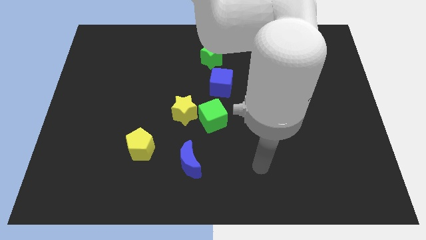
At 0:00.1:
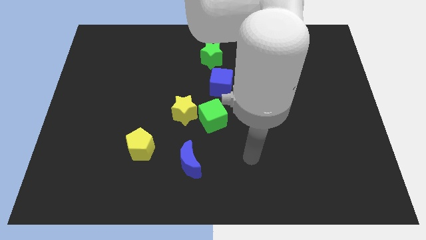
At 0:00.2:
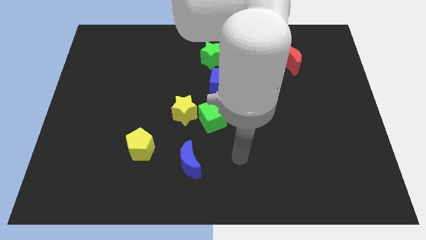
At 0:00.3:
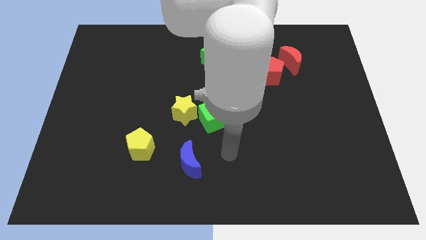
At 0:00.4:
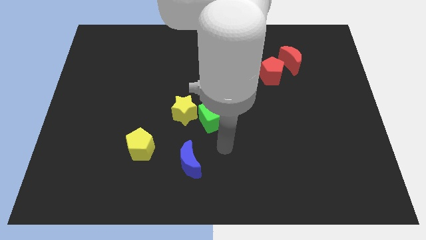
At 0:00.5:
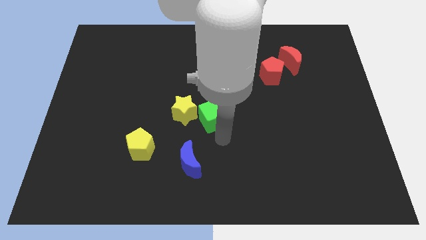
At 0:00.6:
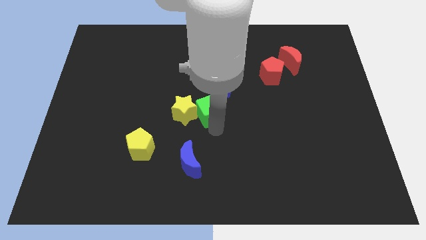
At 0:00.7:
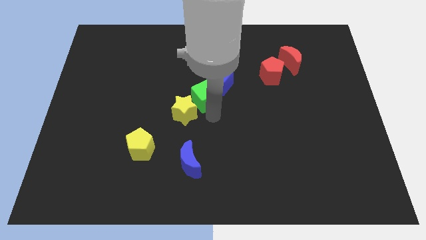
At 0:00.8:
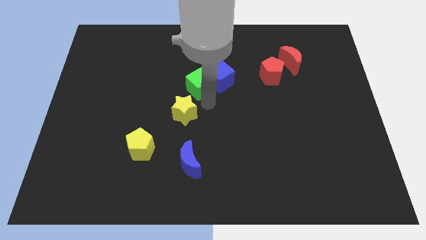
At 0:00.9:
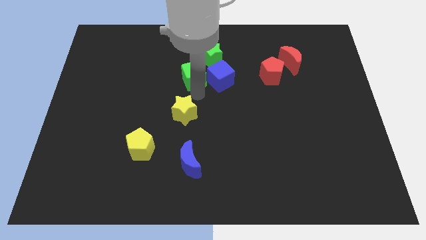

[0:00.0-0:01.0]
move the yellow star away from the green cube

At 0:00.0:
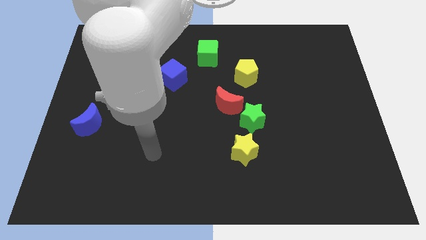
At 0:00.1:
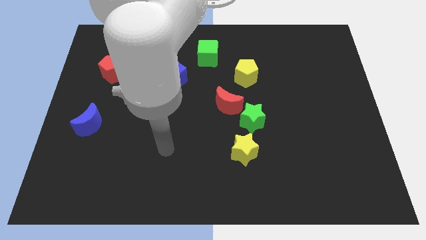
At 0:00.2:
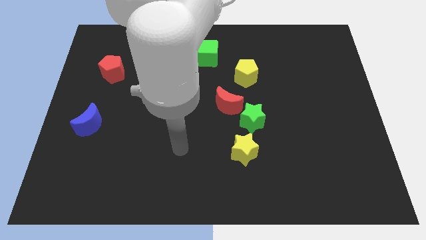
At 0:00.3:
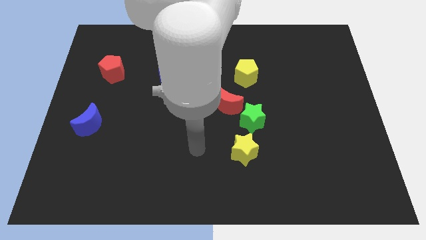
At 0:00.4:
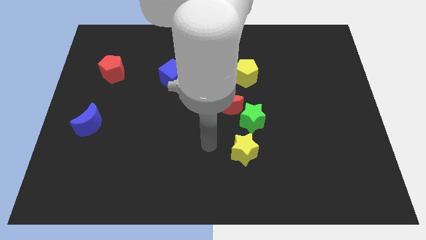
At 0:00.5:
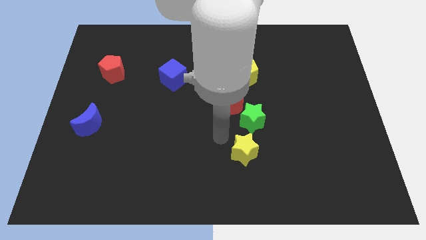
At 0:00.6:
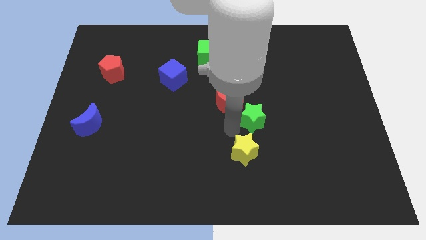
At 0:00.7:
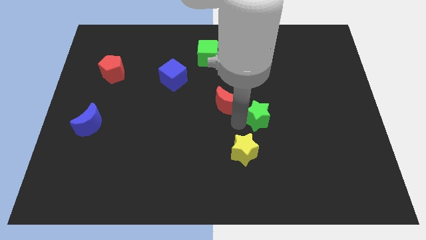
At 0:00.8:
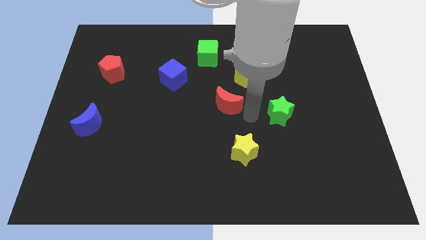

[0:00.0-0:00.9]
pull the red moon apart from the green star

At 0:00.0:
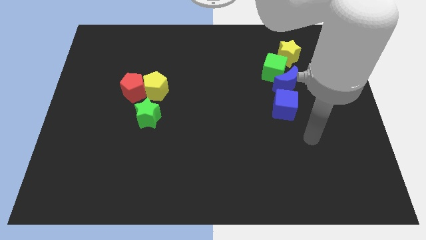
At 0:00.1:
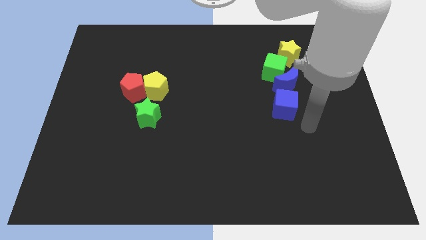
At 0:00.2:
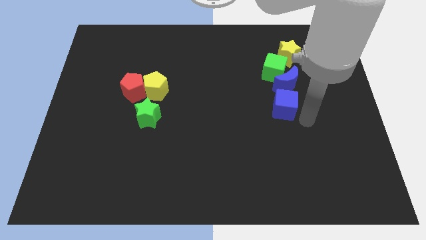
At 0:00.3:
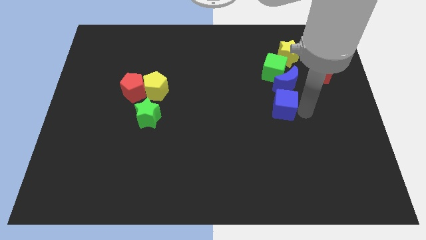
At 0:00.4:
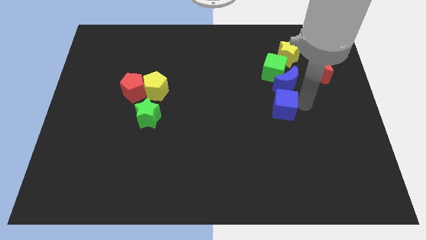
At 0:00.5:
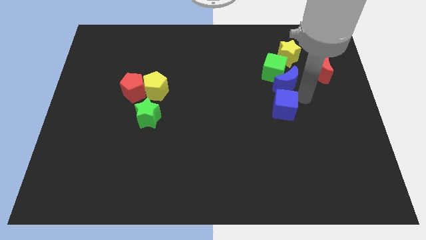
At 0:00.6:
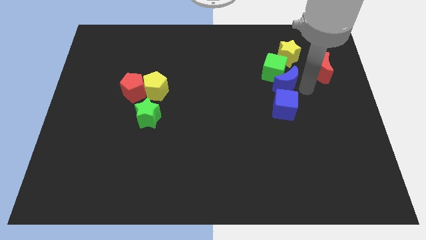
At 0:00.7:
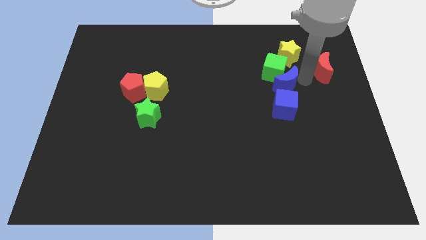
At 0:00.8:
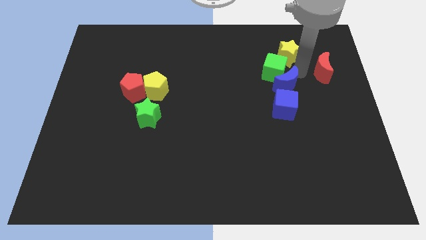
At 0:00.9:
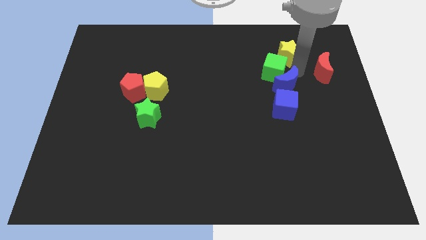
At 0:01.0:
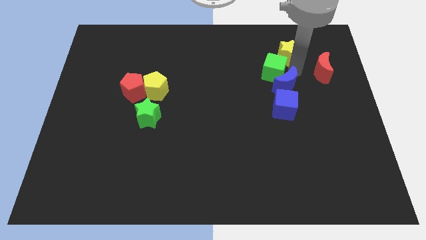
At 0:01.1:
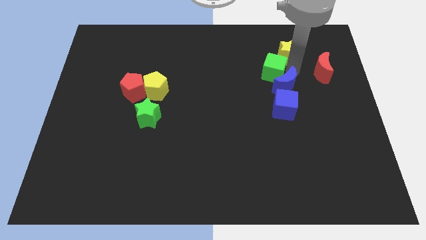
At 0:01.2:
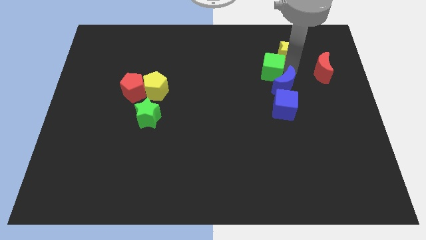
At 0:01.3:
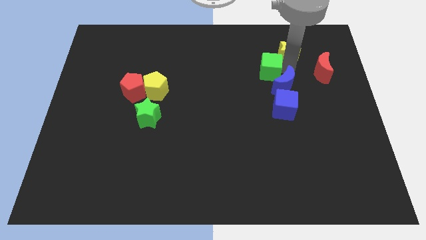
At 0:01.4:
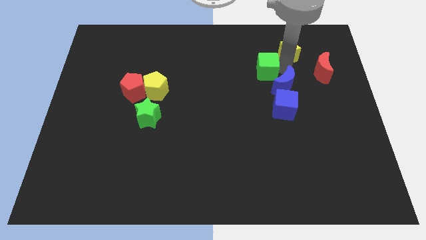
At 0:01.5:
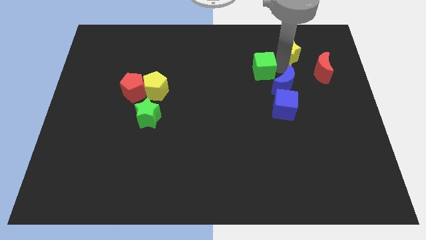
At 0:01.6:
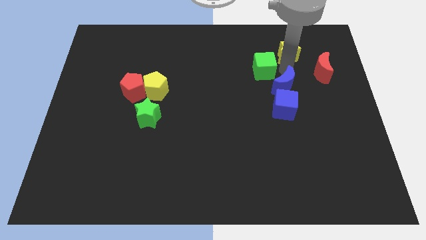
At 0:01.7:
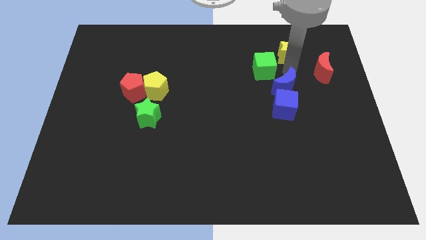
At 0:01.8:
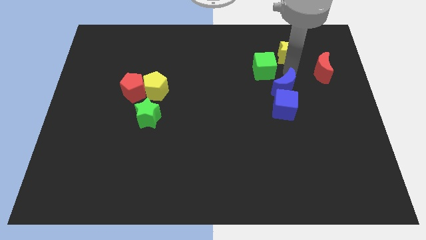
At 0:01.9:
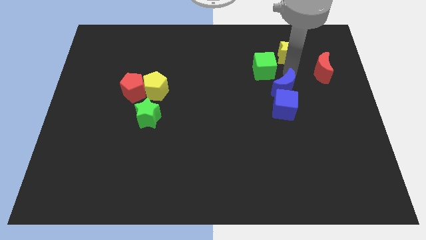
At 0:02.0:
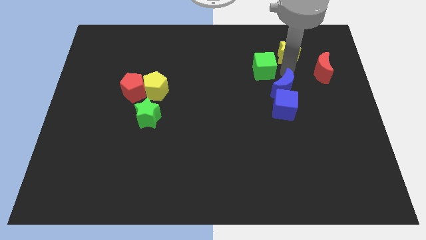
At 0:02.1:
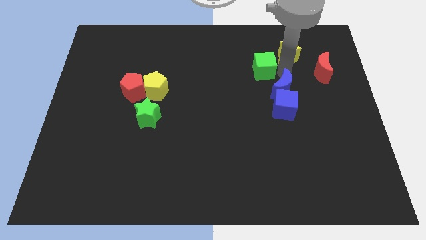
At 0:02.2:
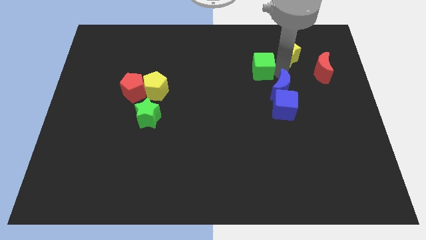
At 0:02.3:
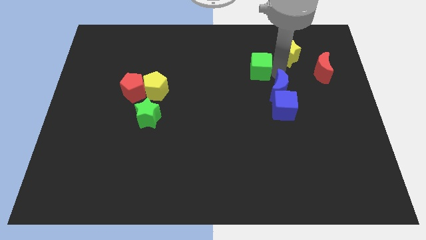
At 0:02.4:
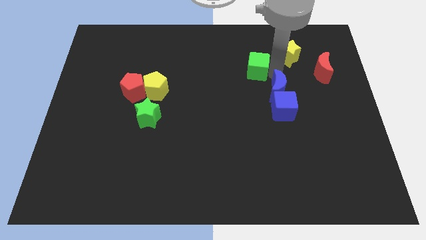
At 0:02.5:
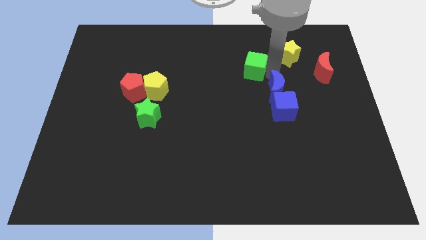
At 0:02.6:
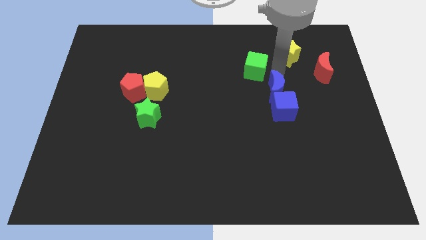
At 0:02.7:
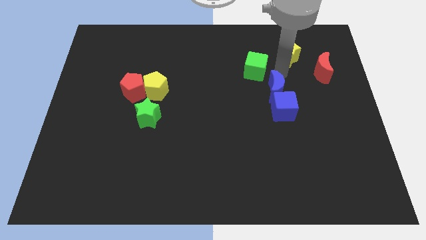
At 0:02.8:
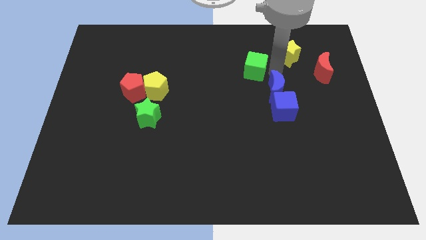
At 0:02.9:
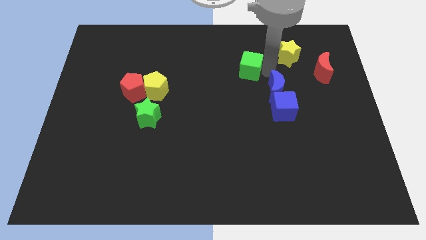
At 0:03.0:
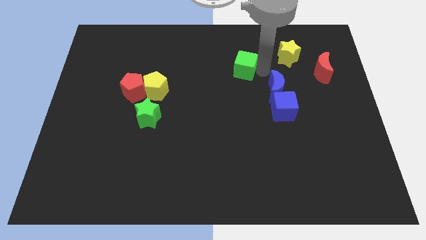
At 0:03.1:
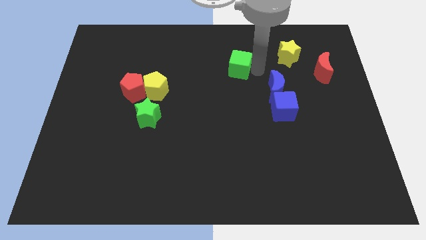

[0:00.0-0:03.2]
pull the green cube apart from the blue moon and yellow star

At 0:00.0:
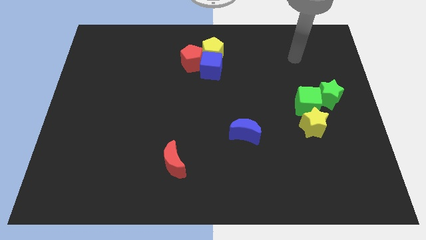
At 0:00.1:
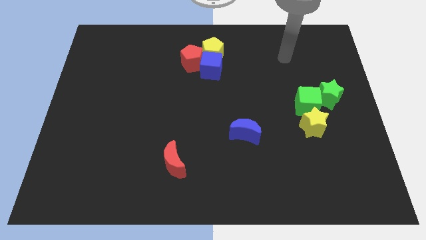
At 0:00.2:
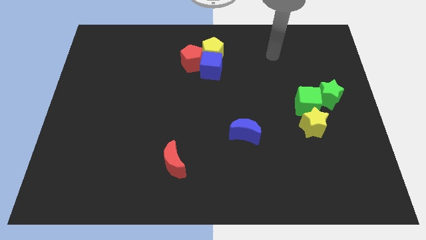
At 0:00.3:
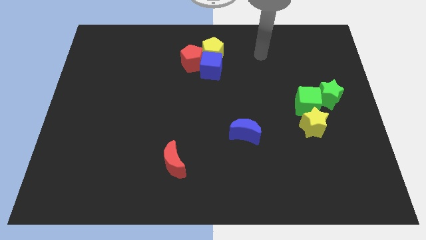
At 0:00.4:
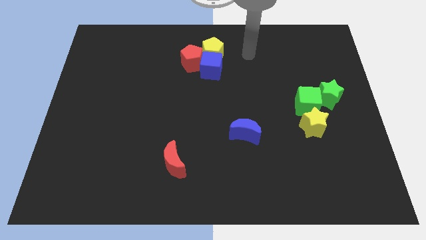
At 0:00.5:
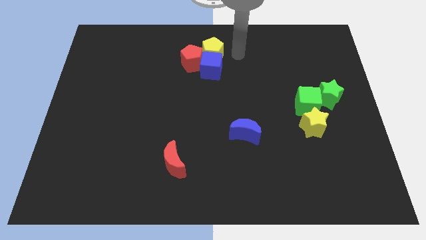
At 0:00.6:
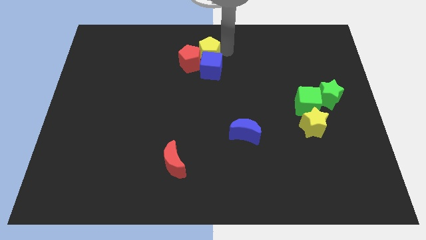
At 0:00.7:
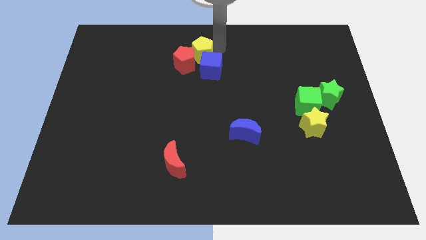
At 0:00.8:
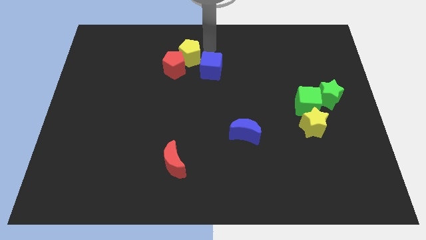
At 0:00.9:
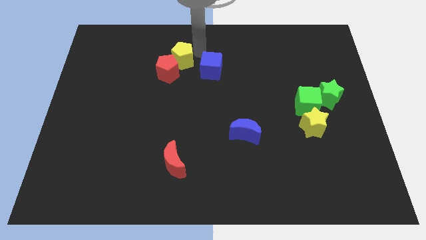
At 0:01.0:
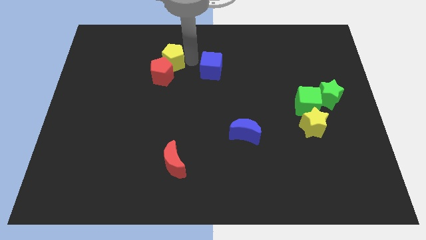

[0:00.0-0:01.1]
pull the blue cube apart from the yellow pentagon and red pentagon

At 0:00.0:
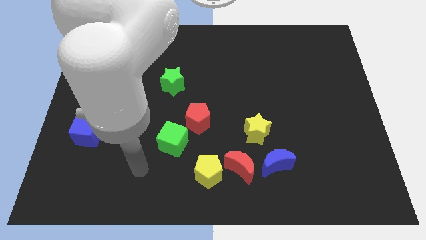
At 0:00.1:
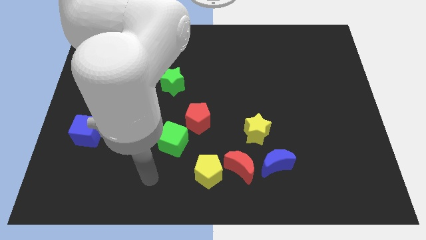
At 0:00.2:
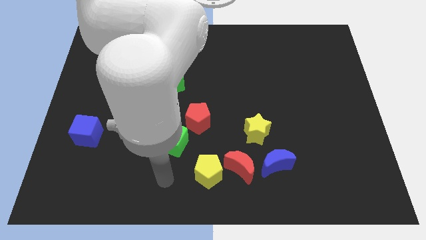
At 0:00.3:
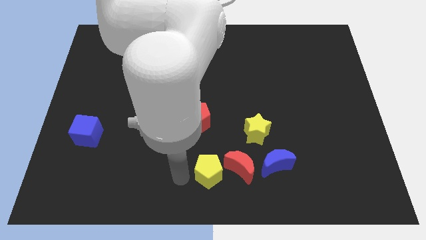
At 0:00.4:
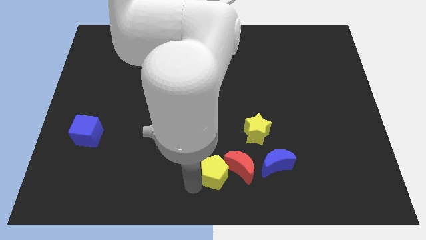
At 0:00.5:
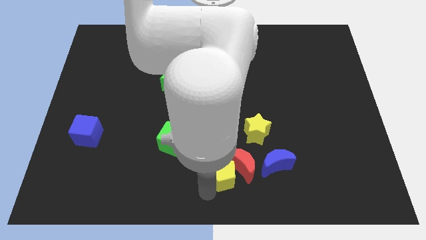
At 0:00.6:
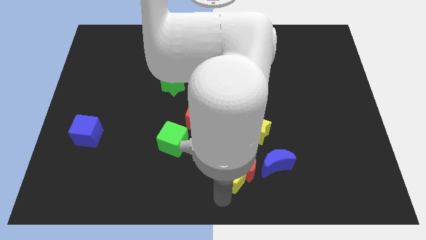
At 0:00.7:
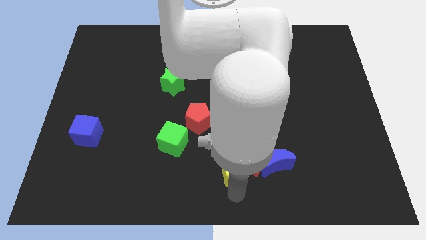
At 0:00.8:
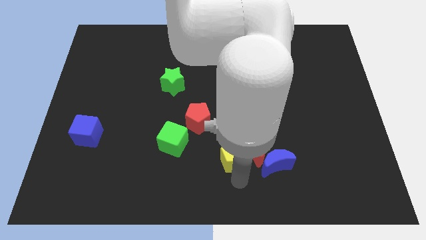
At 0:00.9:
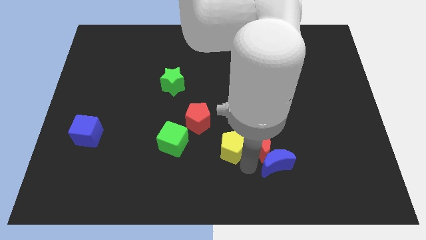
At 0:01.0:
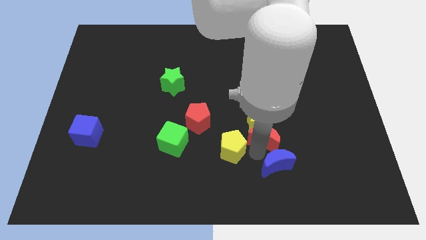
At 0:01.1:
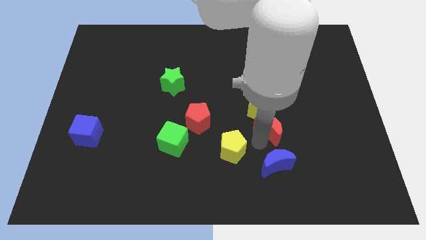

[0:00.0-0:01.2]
separate the yellow pentagon from the red moon

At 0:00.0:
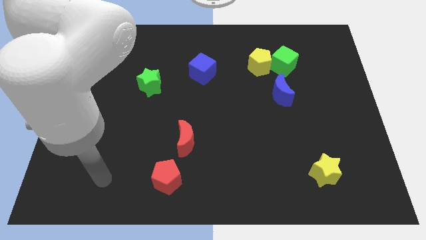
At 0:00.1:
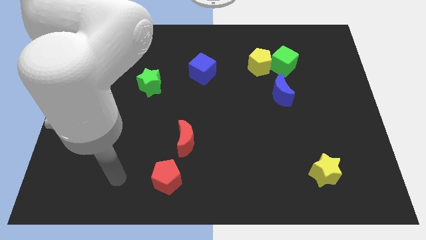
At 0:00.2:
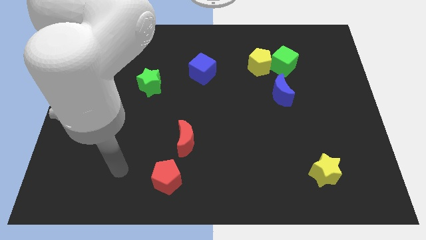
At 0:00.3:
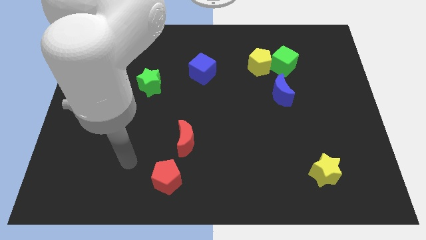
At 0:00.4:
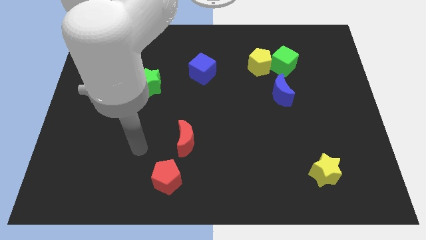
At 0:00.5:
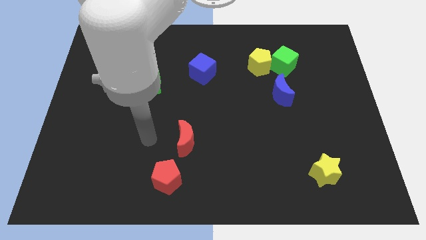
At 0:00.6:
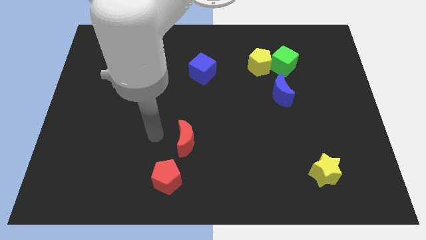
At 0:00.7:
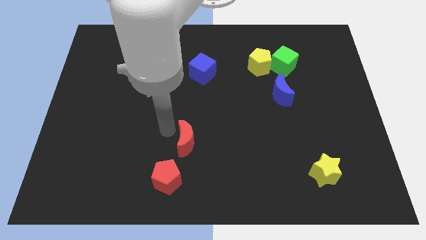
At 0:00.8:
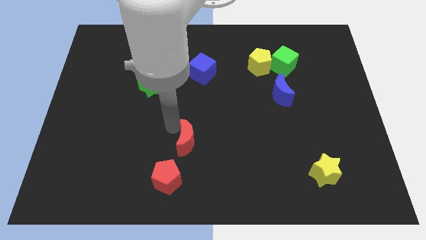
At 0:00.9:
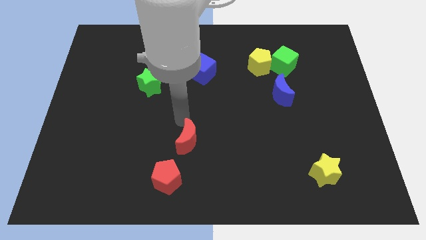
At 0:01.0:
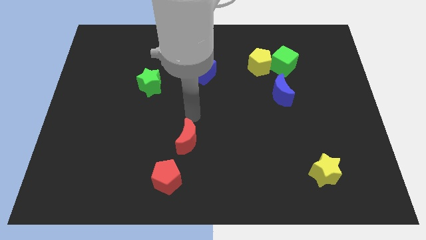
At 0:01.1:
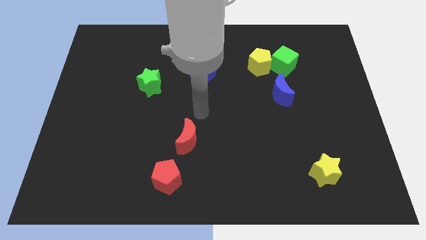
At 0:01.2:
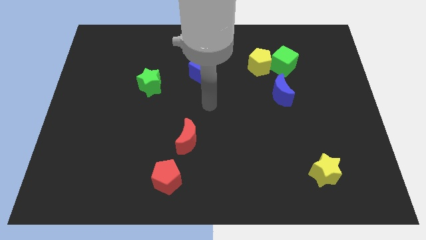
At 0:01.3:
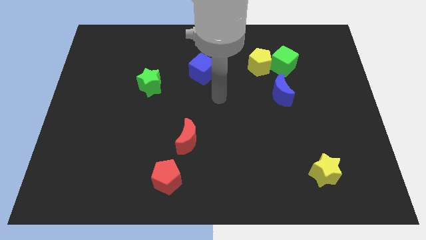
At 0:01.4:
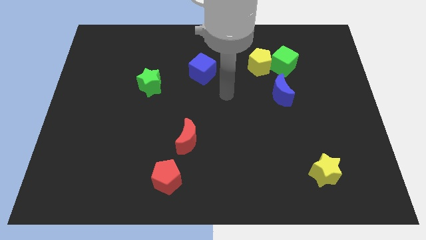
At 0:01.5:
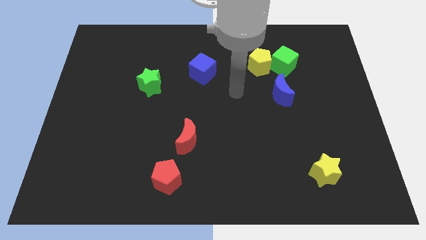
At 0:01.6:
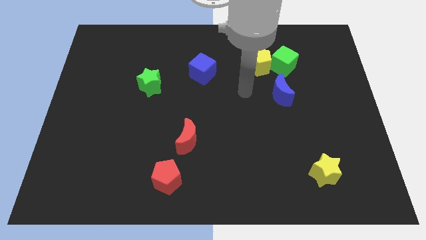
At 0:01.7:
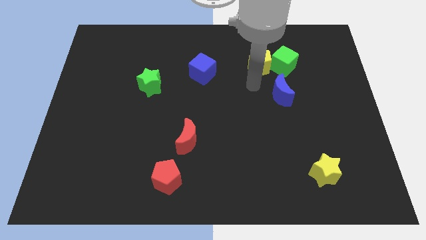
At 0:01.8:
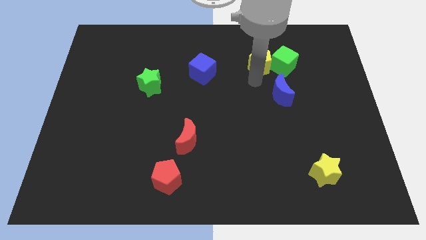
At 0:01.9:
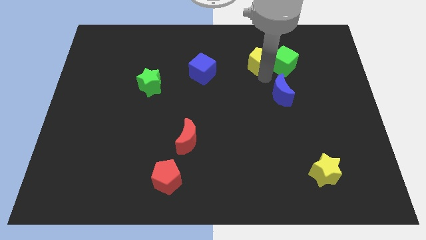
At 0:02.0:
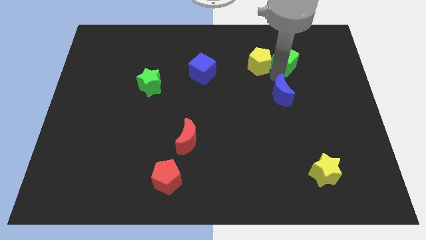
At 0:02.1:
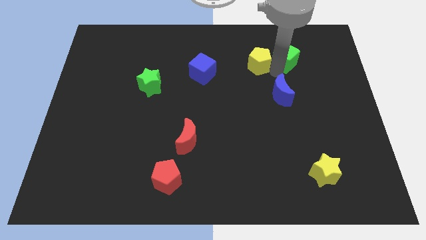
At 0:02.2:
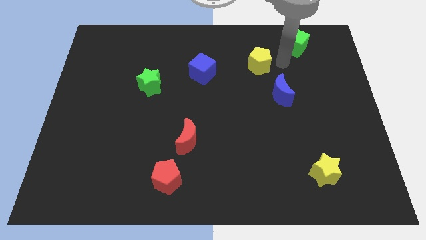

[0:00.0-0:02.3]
separate the yellow pentagon from the green cube
